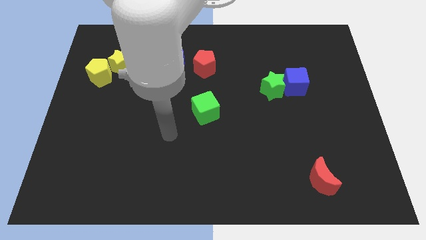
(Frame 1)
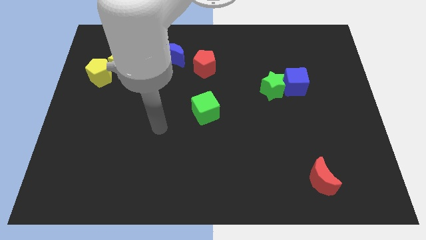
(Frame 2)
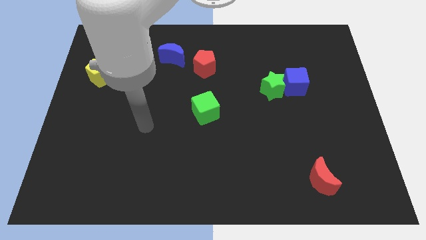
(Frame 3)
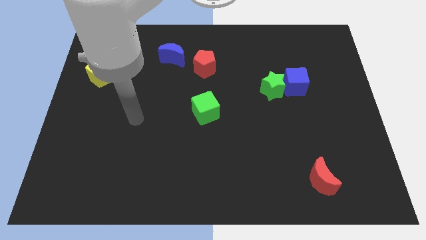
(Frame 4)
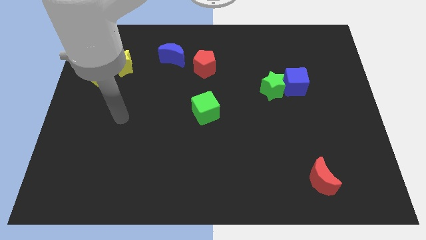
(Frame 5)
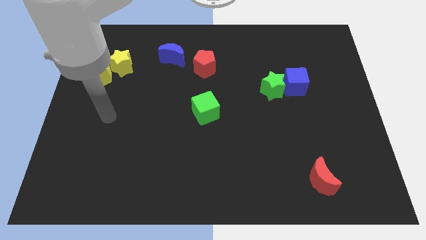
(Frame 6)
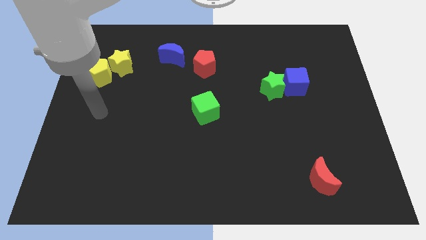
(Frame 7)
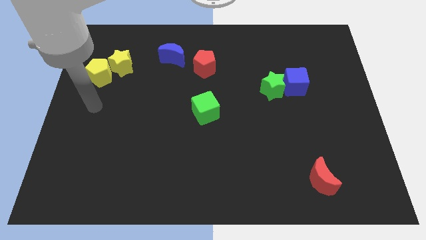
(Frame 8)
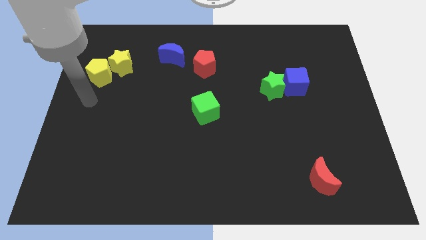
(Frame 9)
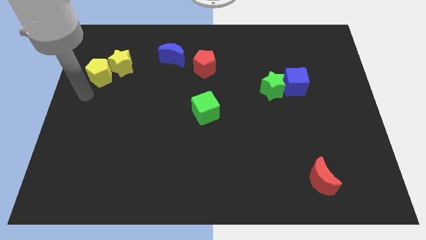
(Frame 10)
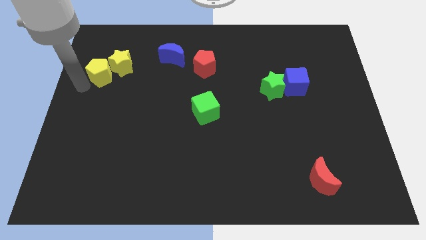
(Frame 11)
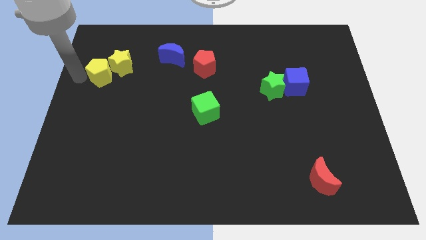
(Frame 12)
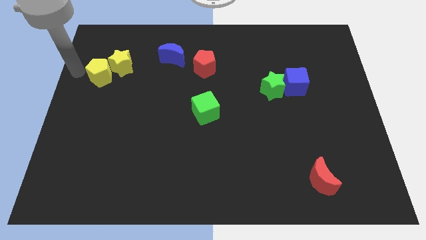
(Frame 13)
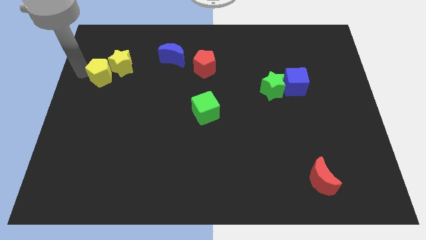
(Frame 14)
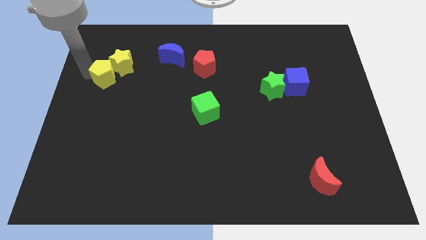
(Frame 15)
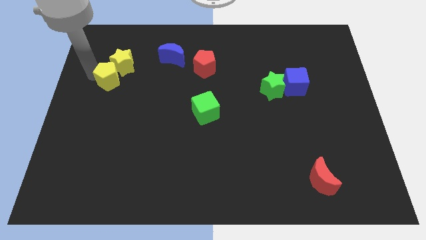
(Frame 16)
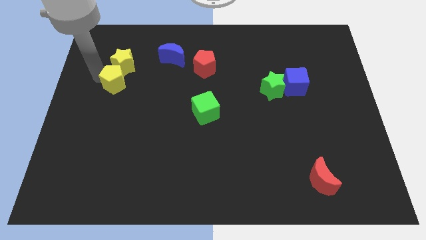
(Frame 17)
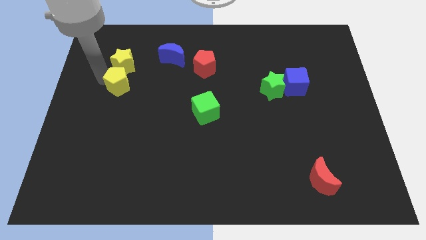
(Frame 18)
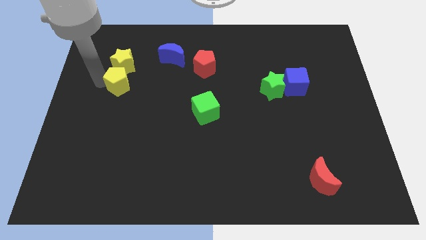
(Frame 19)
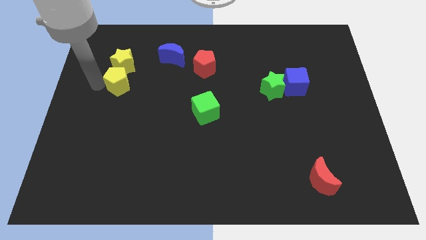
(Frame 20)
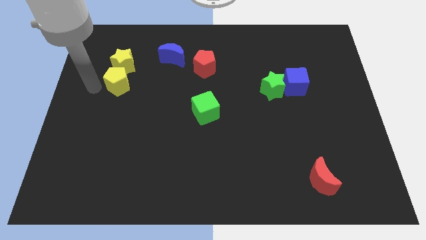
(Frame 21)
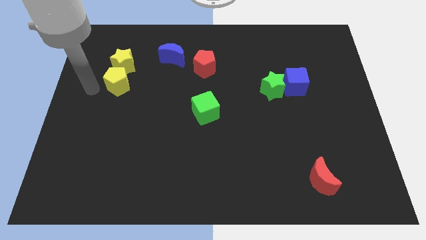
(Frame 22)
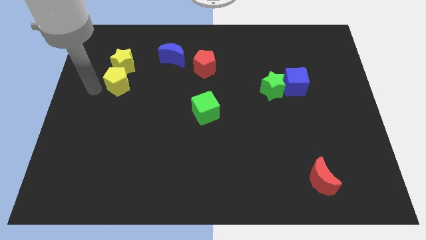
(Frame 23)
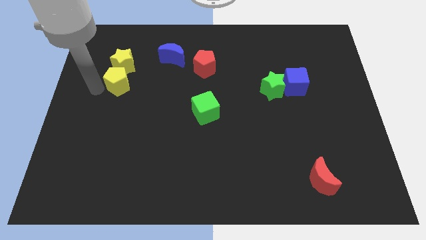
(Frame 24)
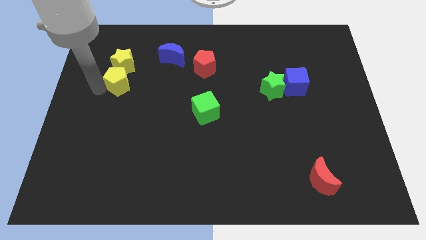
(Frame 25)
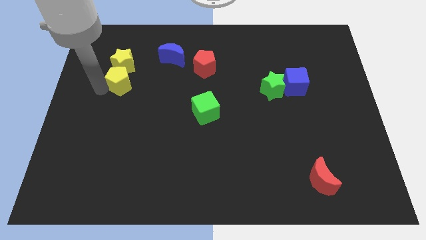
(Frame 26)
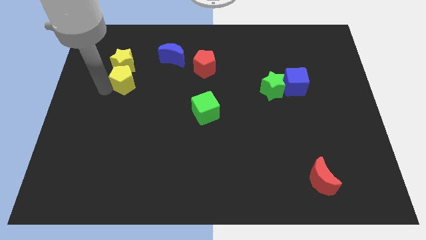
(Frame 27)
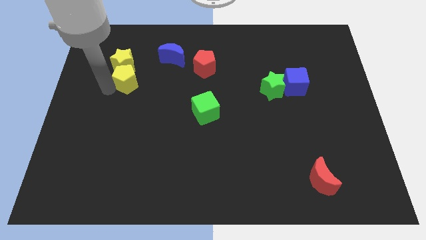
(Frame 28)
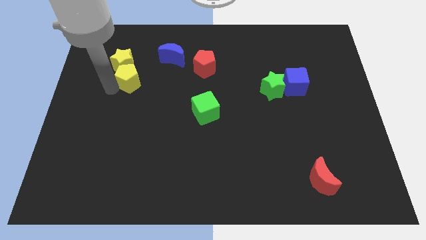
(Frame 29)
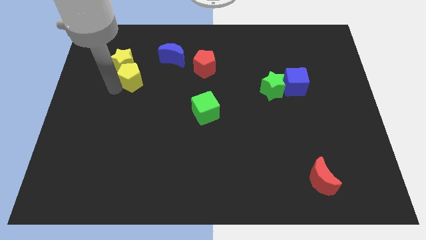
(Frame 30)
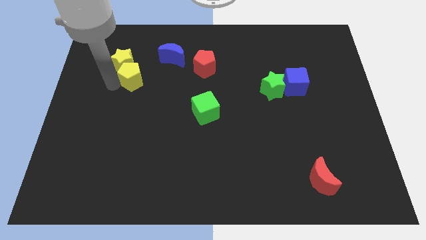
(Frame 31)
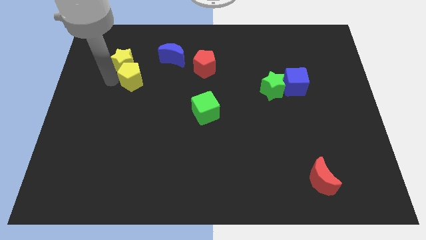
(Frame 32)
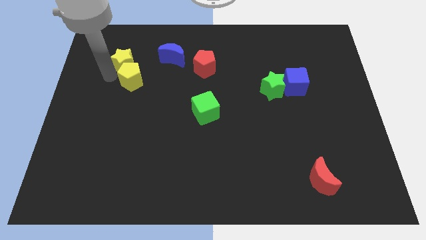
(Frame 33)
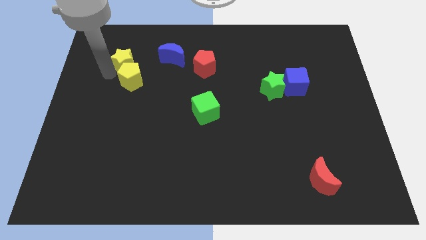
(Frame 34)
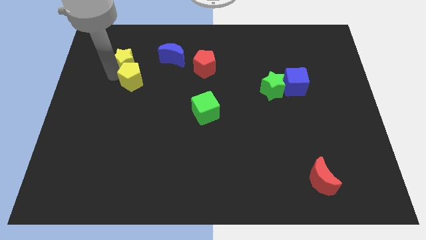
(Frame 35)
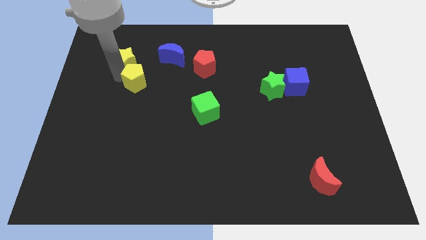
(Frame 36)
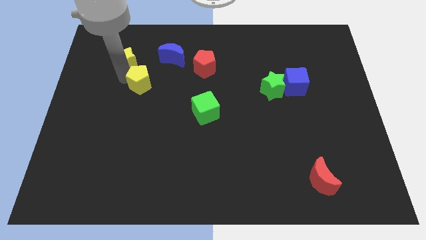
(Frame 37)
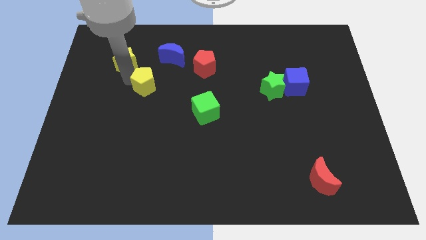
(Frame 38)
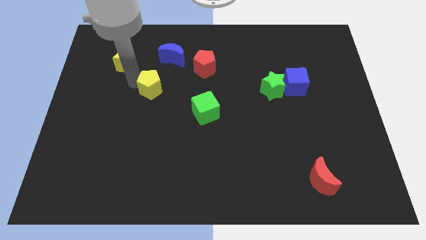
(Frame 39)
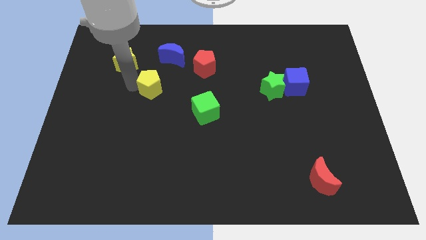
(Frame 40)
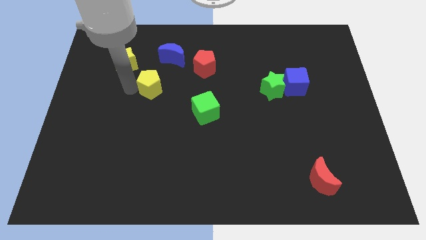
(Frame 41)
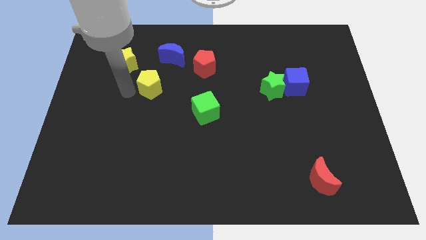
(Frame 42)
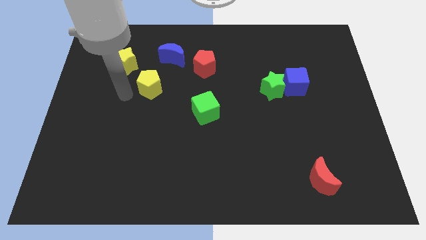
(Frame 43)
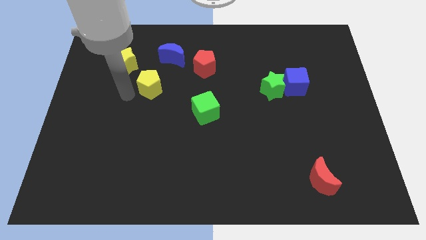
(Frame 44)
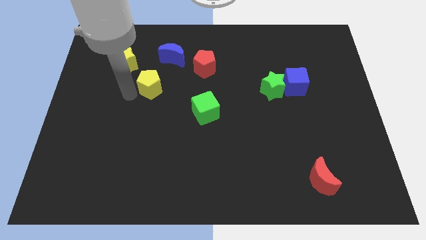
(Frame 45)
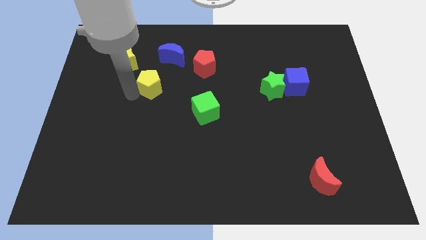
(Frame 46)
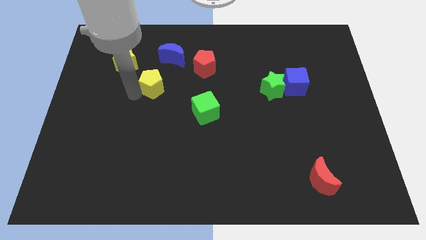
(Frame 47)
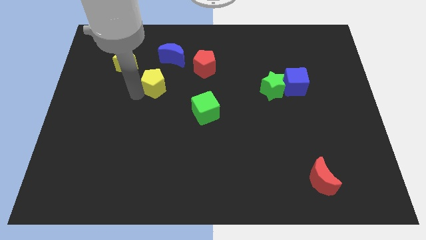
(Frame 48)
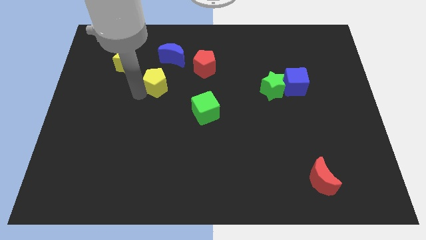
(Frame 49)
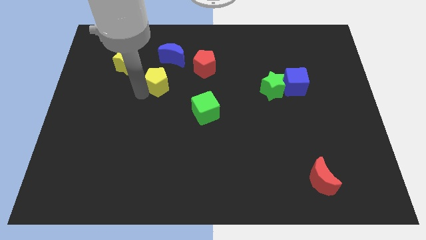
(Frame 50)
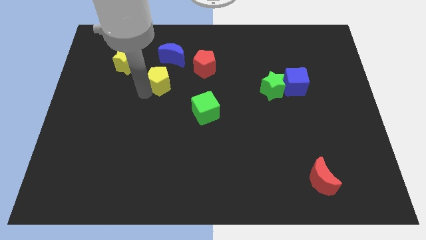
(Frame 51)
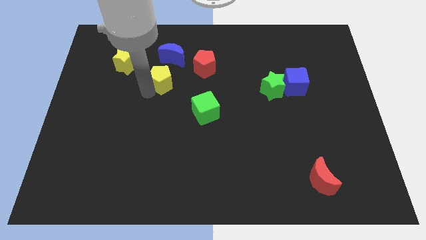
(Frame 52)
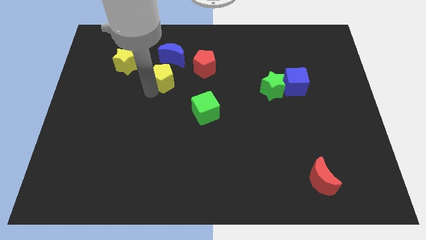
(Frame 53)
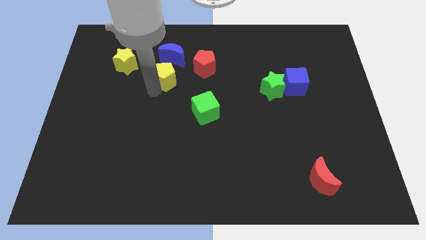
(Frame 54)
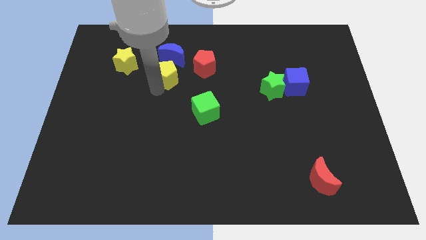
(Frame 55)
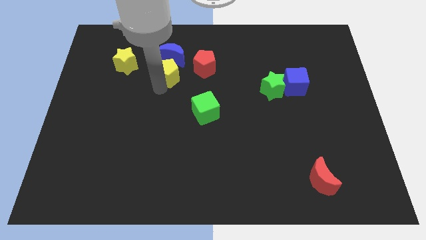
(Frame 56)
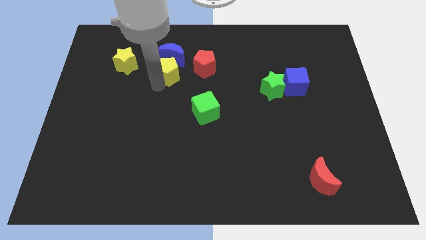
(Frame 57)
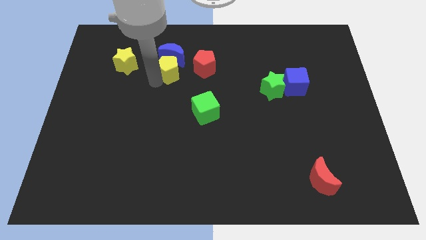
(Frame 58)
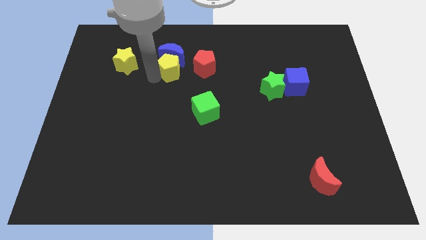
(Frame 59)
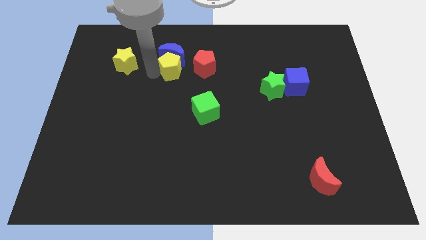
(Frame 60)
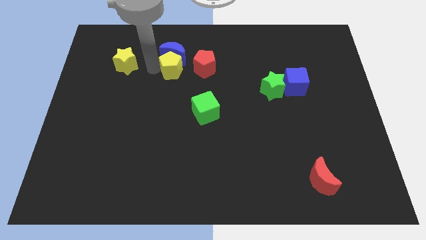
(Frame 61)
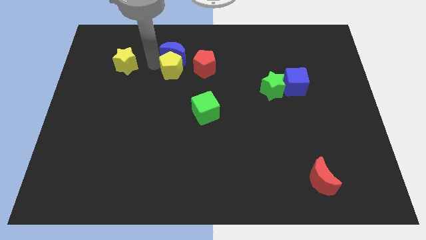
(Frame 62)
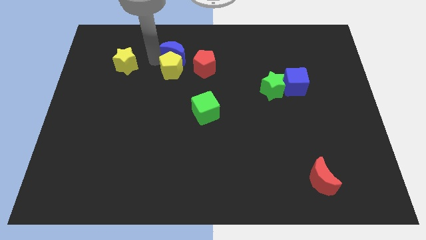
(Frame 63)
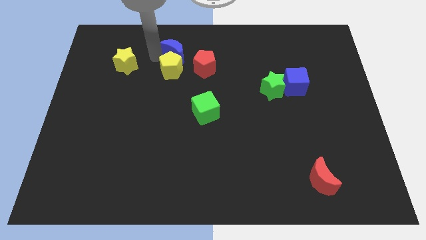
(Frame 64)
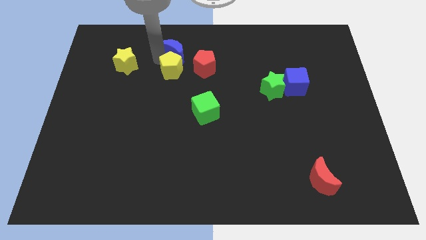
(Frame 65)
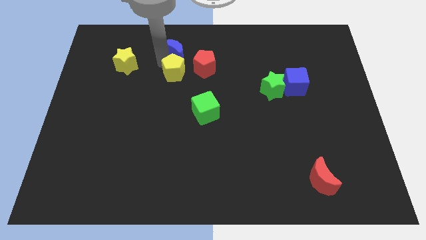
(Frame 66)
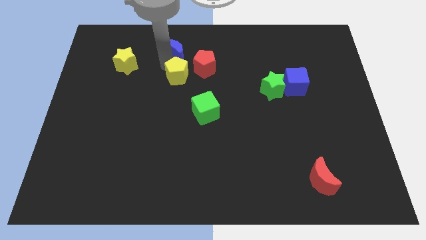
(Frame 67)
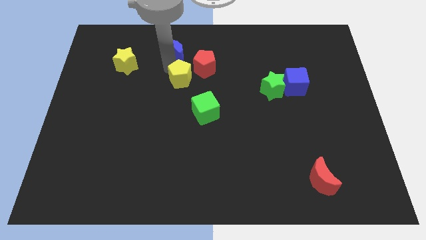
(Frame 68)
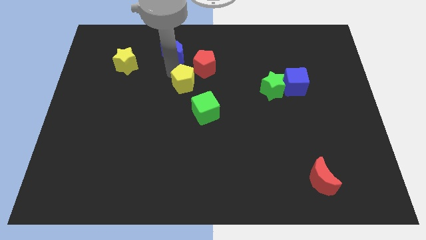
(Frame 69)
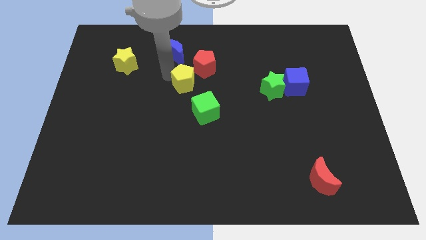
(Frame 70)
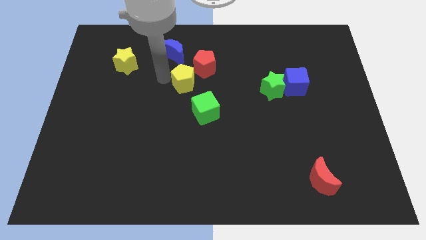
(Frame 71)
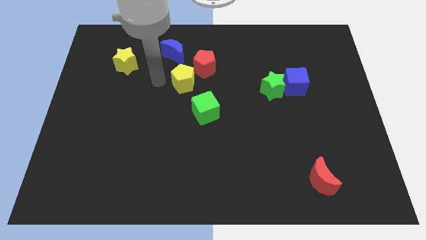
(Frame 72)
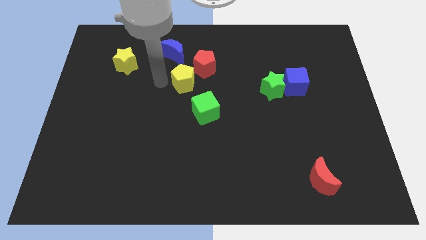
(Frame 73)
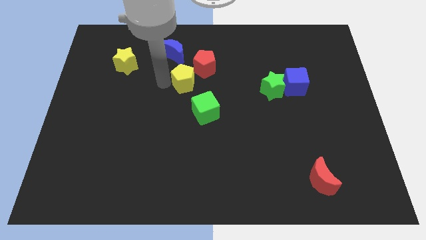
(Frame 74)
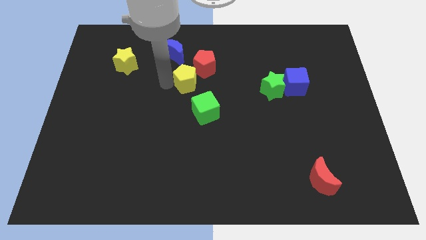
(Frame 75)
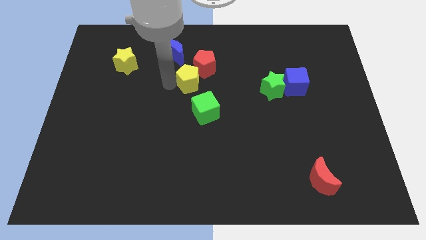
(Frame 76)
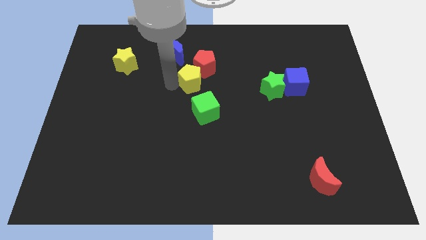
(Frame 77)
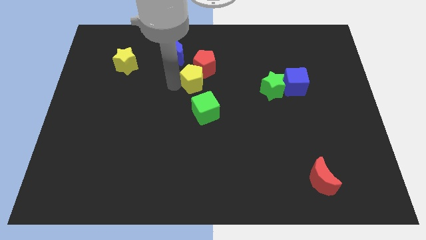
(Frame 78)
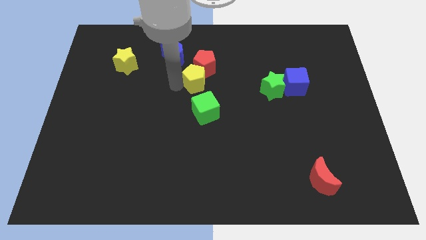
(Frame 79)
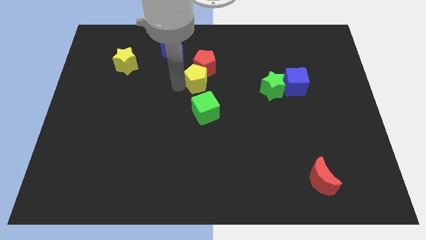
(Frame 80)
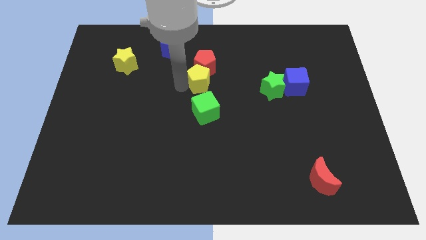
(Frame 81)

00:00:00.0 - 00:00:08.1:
slide the yellow pentagon to the bottom right of the red pentagon

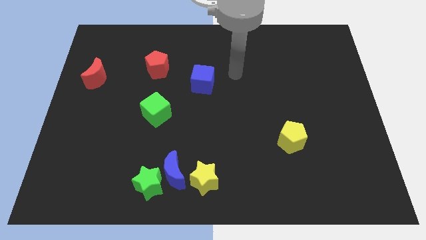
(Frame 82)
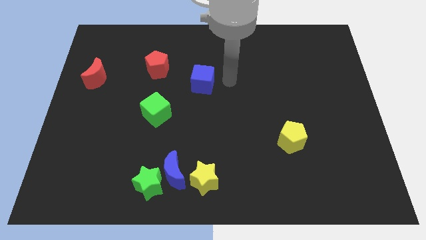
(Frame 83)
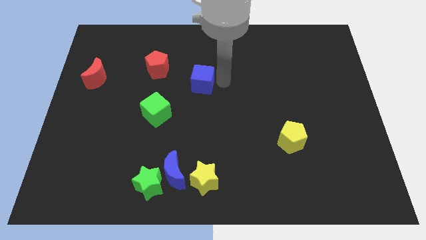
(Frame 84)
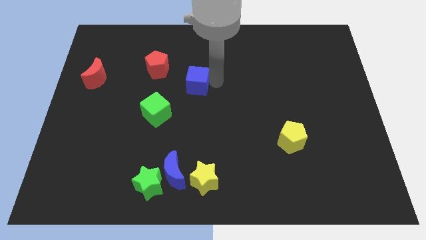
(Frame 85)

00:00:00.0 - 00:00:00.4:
push the blue cube to the bottom right of the red pentagon
